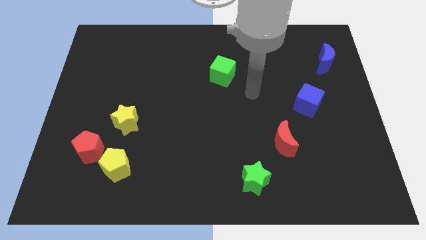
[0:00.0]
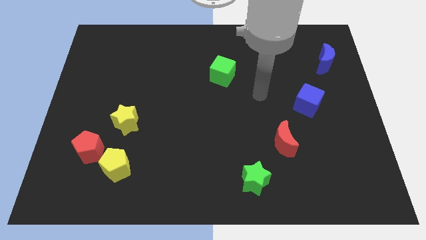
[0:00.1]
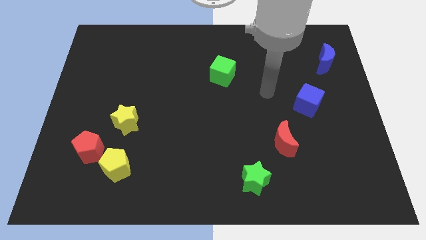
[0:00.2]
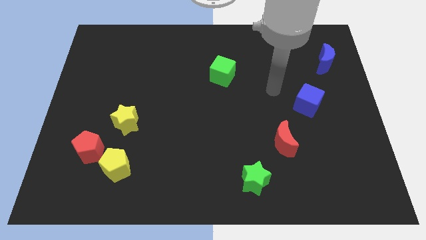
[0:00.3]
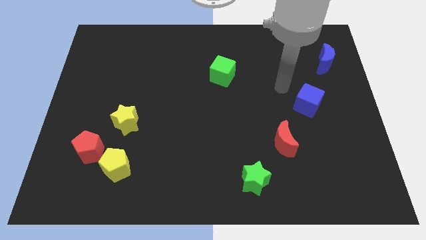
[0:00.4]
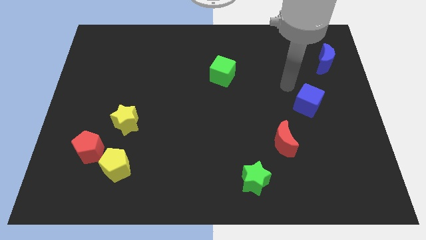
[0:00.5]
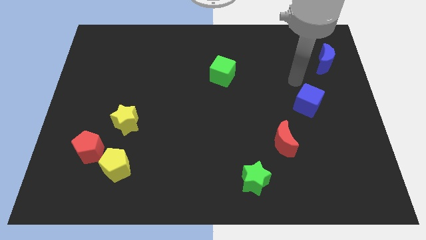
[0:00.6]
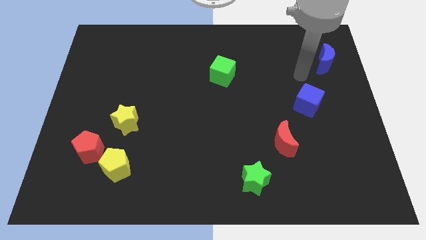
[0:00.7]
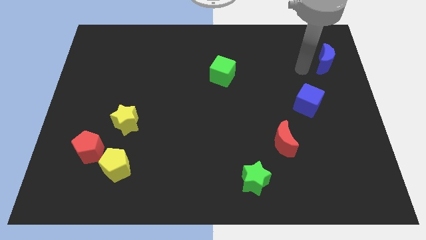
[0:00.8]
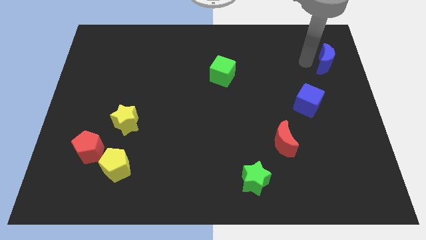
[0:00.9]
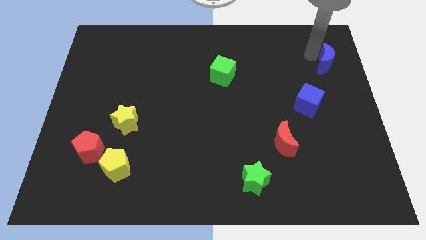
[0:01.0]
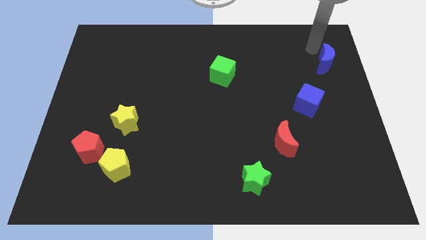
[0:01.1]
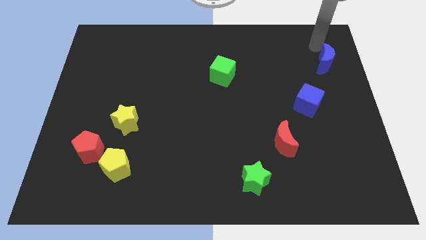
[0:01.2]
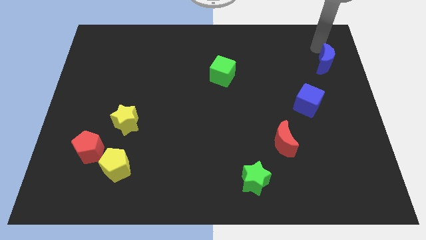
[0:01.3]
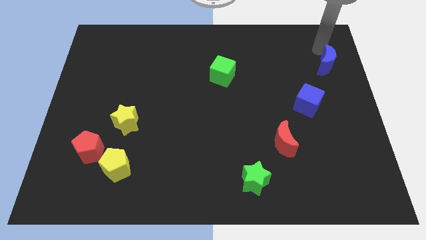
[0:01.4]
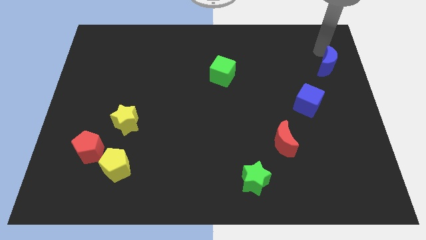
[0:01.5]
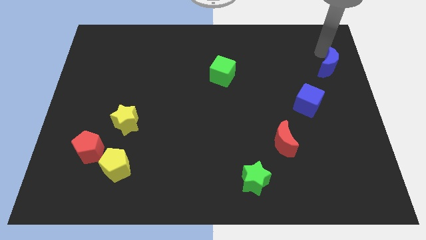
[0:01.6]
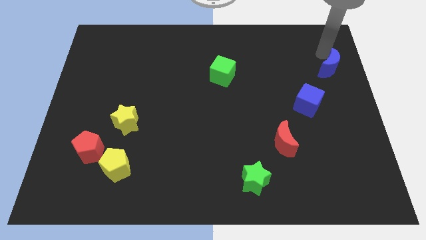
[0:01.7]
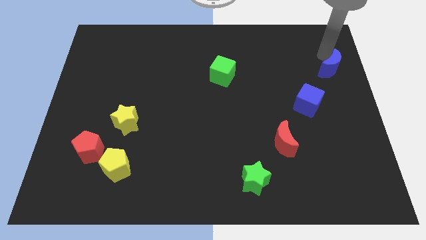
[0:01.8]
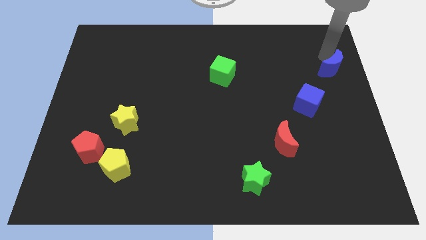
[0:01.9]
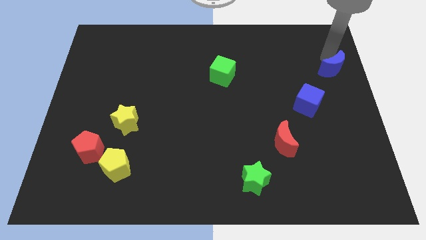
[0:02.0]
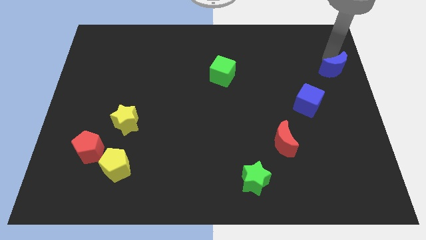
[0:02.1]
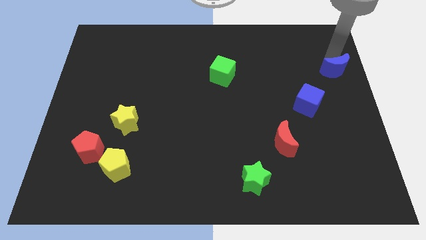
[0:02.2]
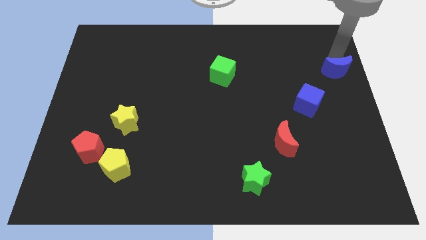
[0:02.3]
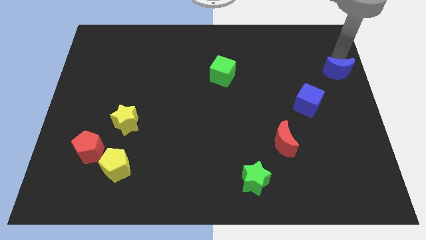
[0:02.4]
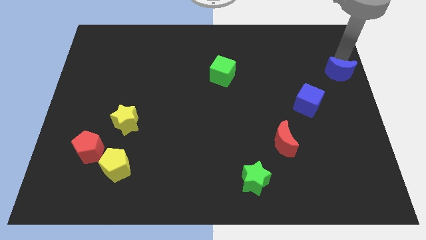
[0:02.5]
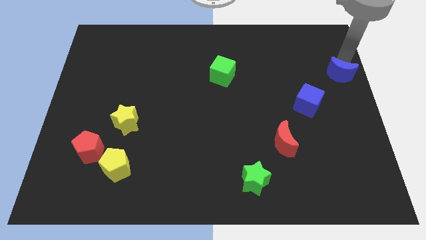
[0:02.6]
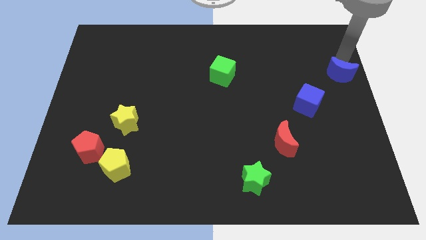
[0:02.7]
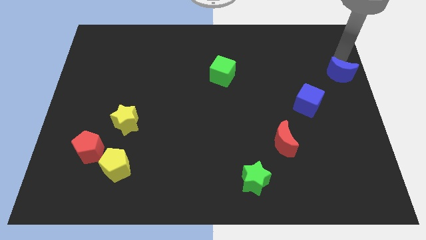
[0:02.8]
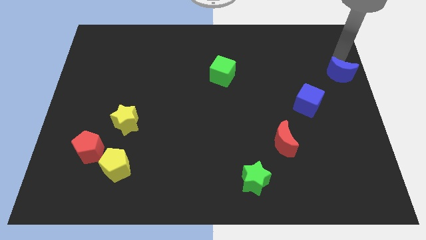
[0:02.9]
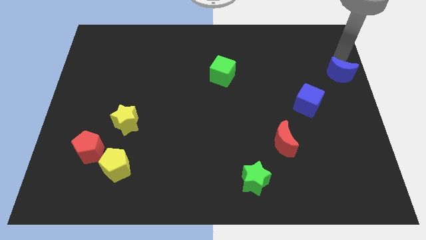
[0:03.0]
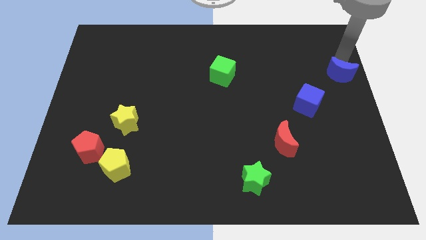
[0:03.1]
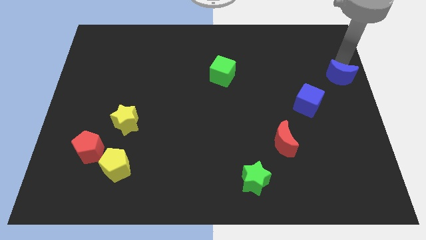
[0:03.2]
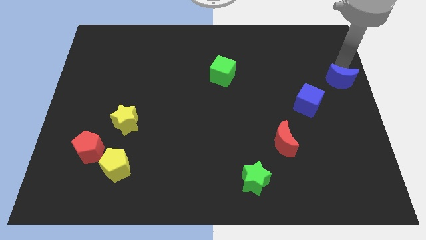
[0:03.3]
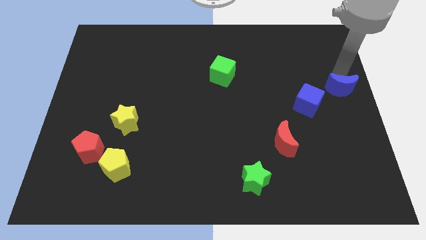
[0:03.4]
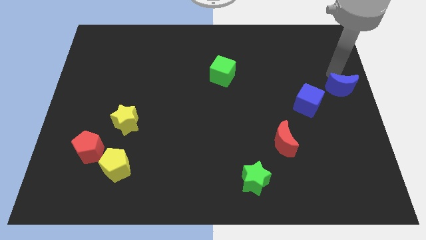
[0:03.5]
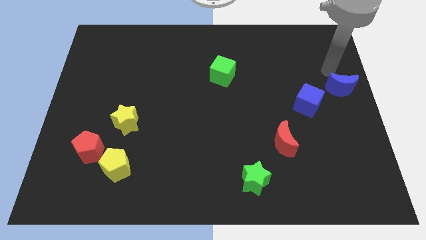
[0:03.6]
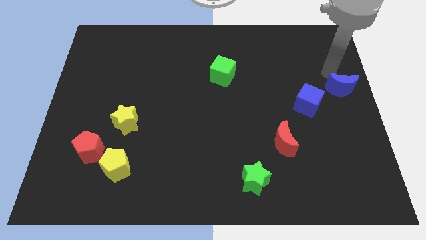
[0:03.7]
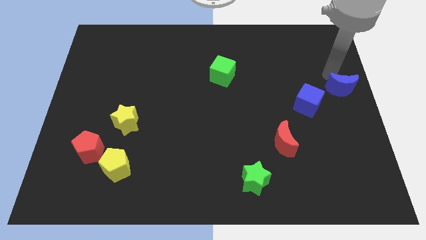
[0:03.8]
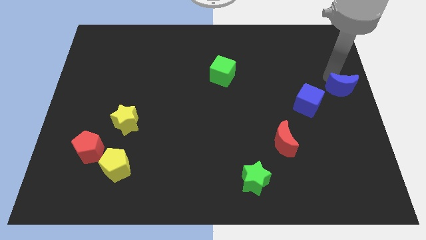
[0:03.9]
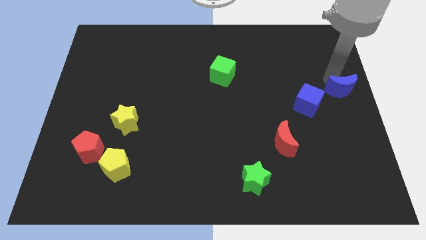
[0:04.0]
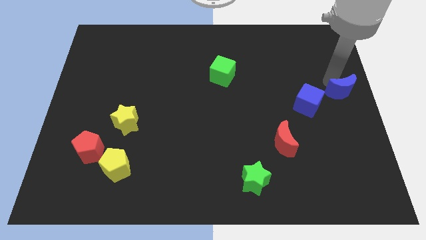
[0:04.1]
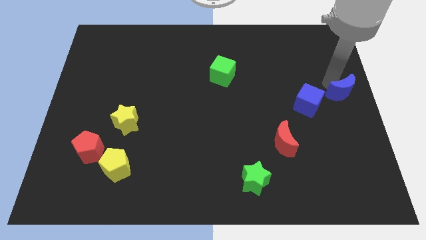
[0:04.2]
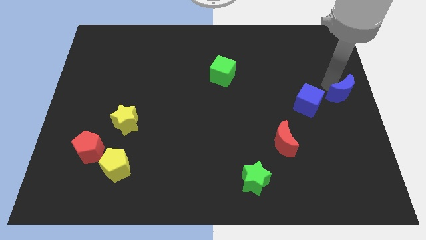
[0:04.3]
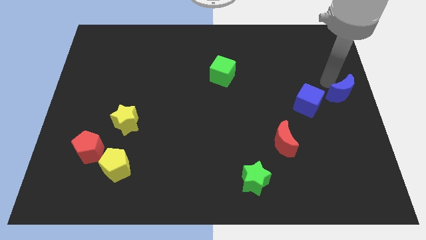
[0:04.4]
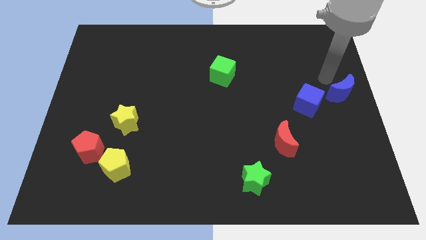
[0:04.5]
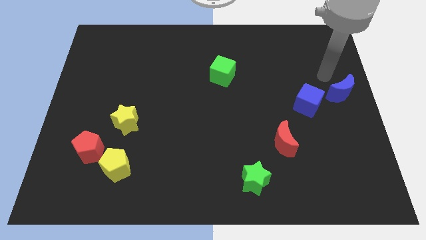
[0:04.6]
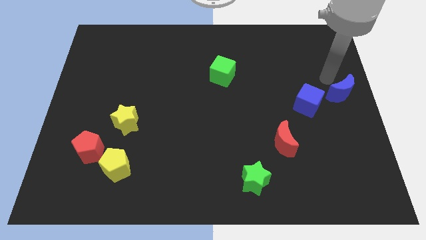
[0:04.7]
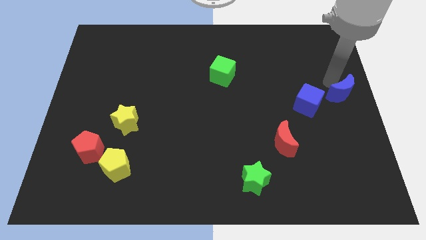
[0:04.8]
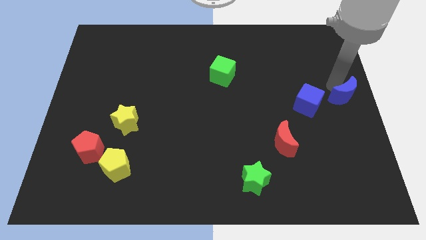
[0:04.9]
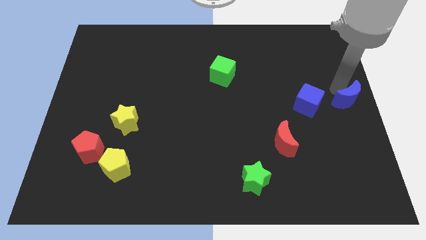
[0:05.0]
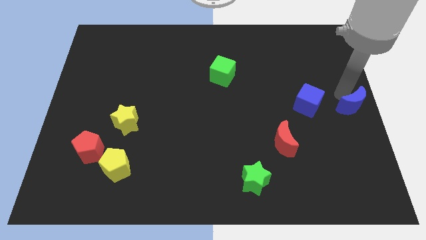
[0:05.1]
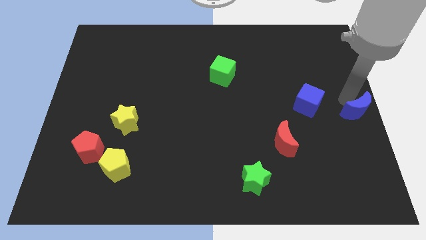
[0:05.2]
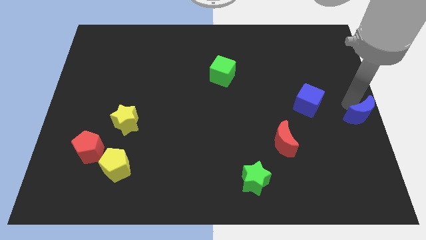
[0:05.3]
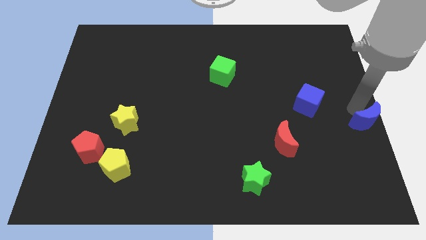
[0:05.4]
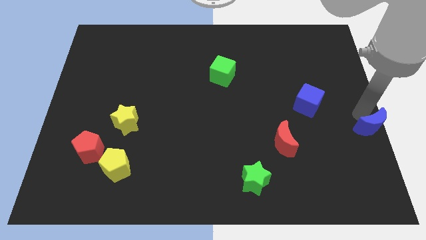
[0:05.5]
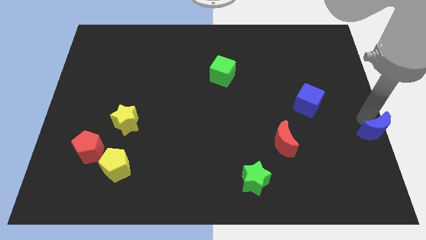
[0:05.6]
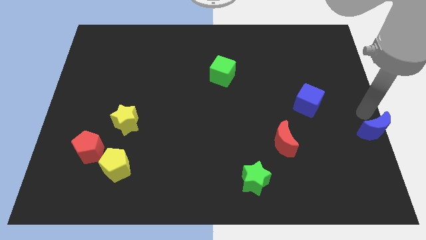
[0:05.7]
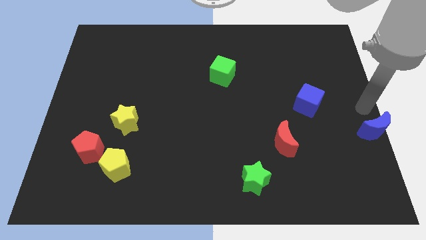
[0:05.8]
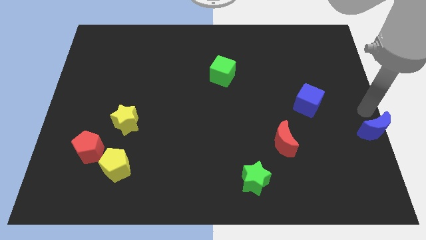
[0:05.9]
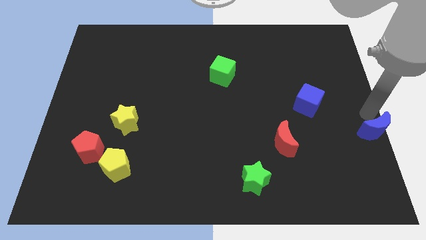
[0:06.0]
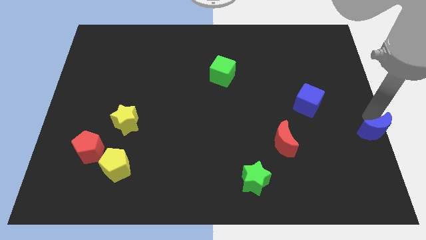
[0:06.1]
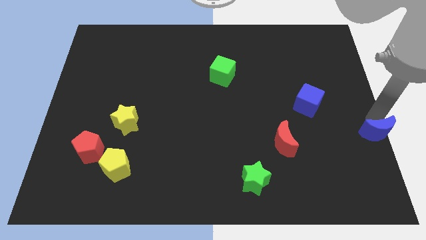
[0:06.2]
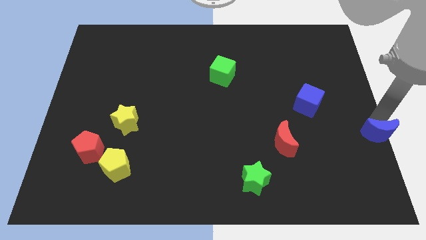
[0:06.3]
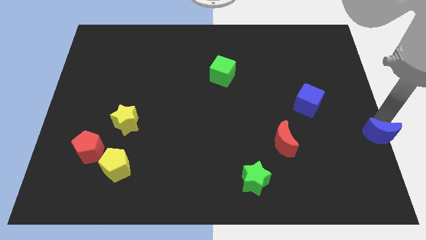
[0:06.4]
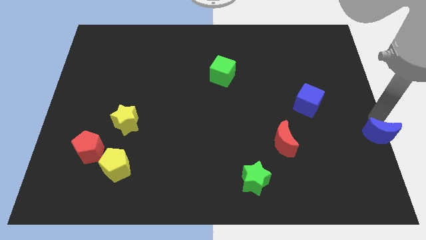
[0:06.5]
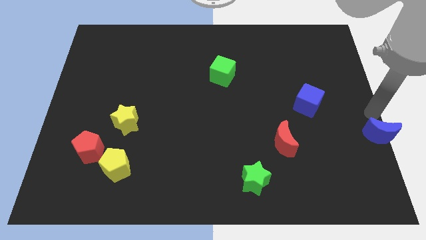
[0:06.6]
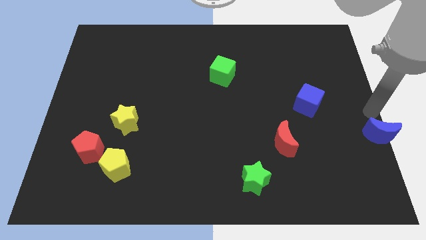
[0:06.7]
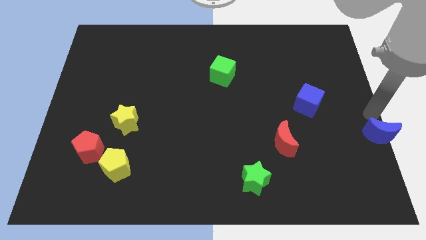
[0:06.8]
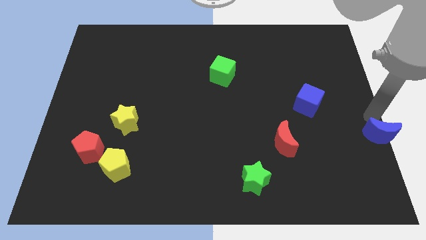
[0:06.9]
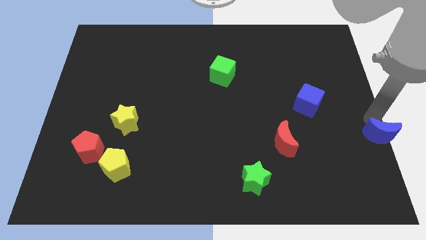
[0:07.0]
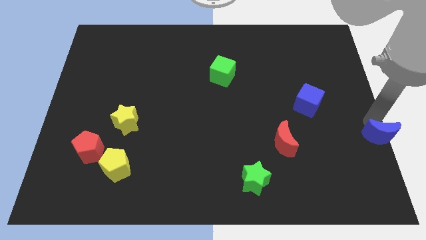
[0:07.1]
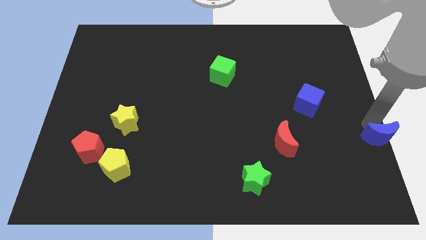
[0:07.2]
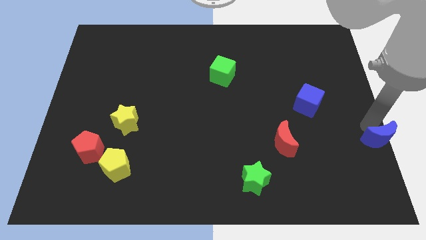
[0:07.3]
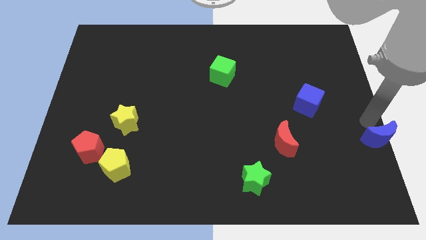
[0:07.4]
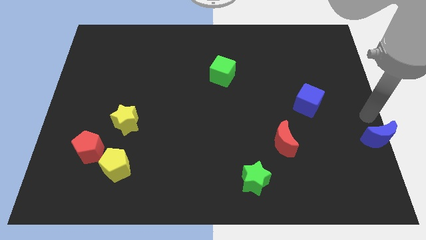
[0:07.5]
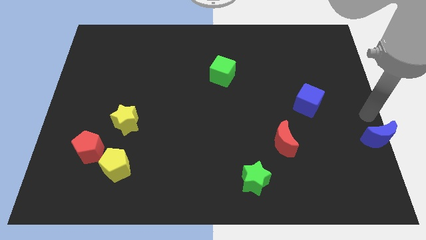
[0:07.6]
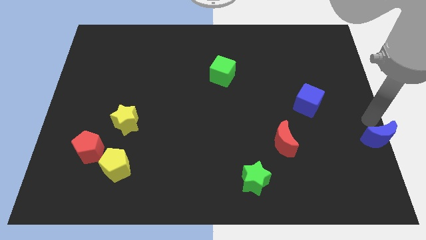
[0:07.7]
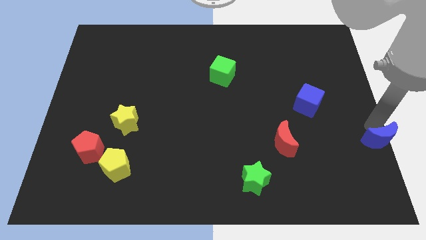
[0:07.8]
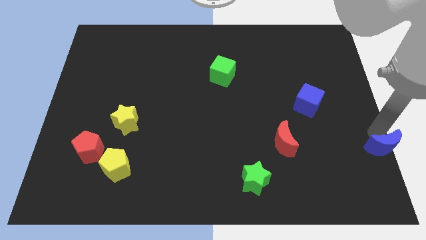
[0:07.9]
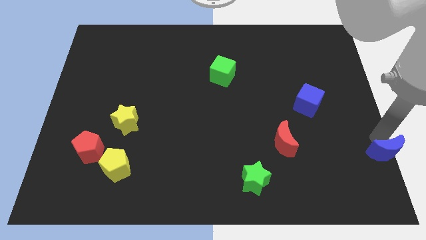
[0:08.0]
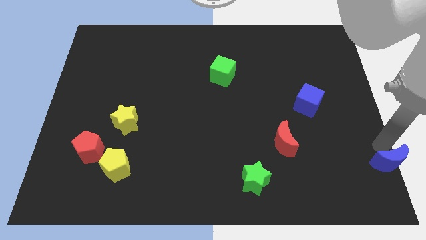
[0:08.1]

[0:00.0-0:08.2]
move the blue moon to the bottom right of the board
